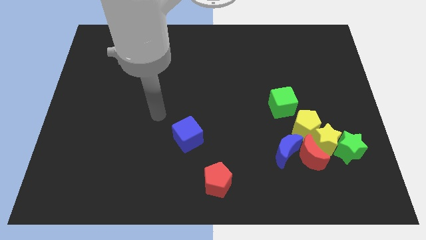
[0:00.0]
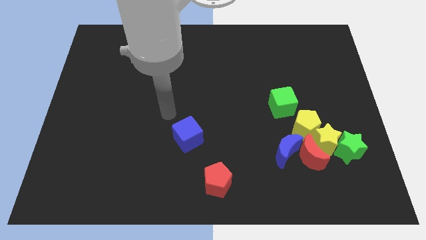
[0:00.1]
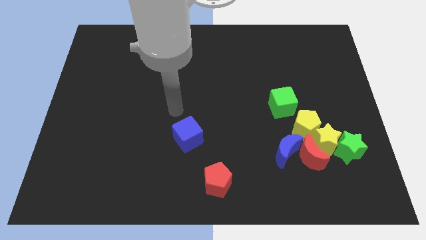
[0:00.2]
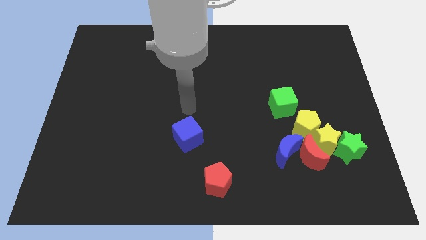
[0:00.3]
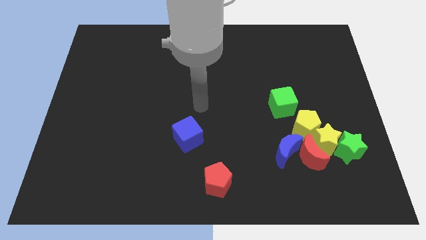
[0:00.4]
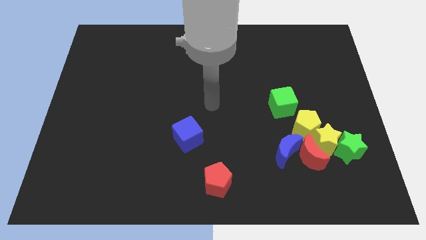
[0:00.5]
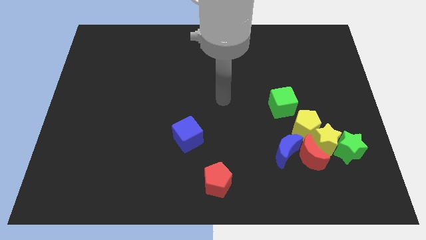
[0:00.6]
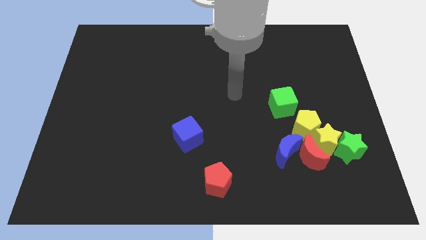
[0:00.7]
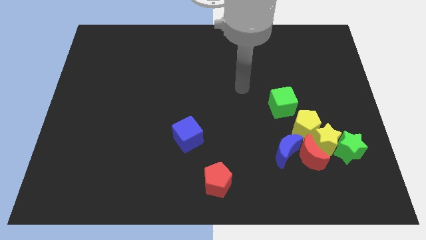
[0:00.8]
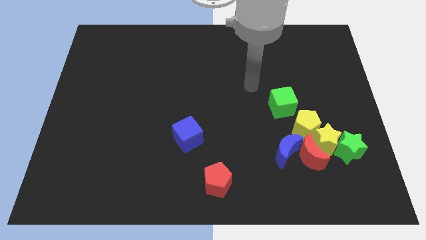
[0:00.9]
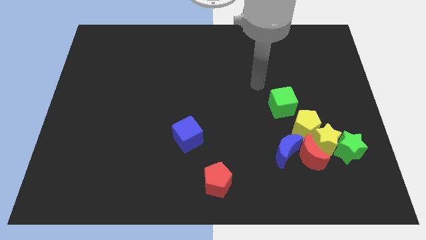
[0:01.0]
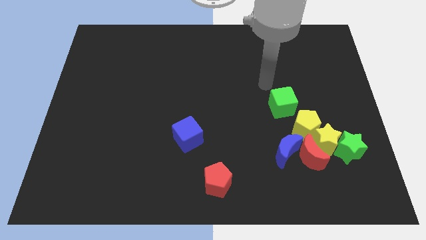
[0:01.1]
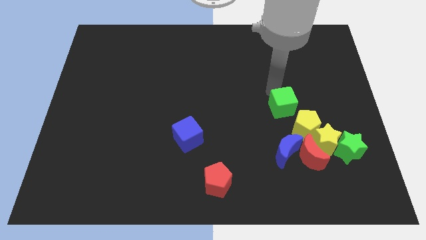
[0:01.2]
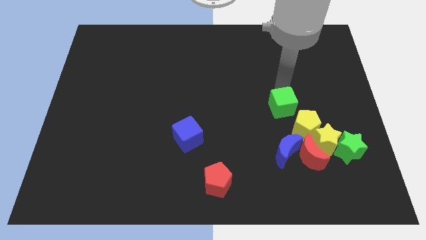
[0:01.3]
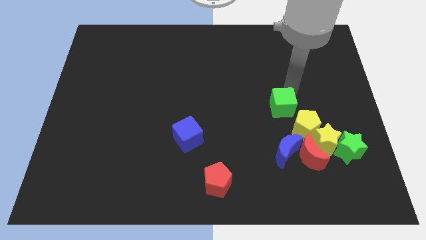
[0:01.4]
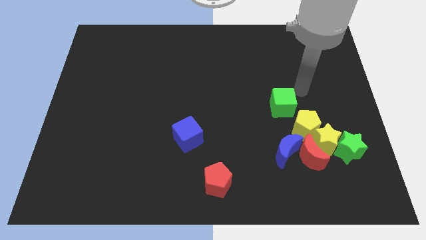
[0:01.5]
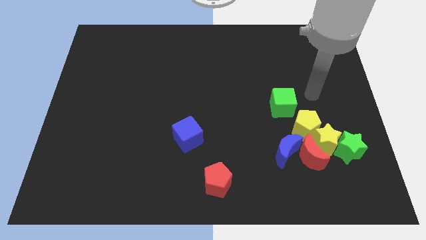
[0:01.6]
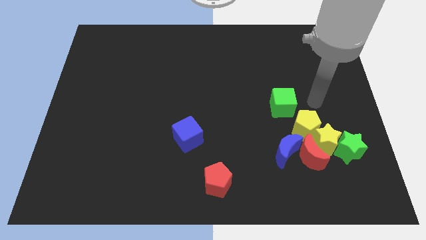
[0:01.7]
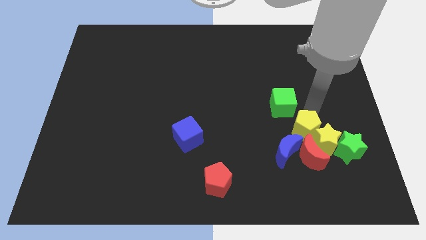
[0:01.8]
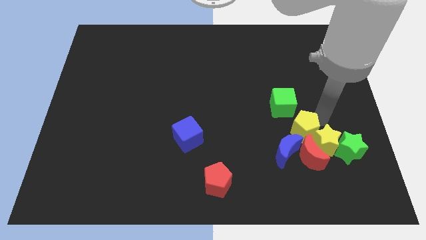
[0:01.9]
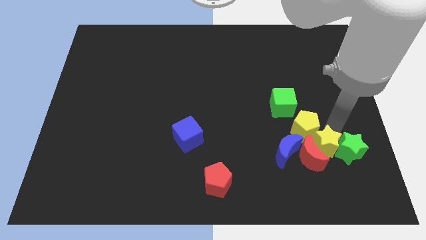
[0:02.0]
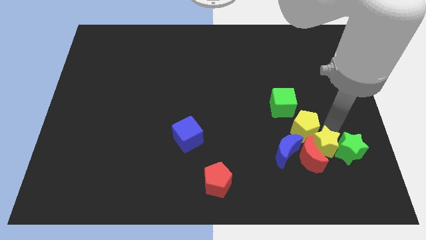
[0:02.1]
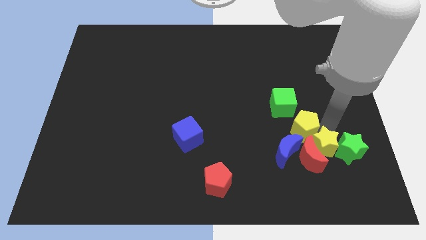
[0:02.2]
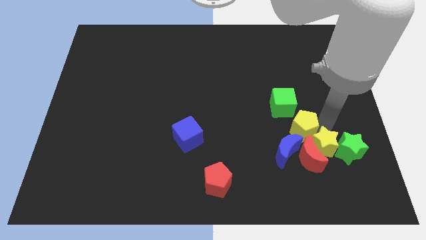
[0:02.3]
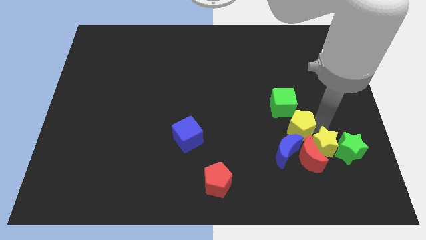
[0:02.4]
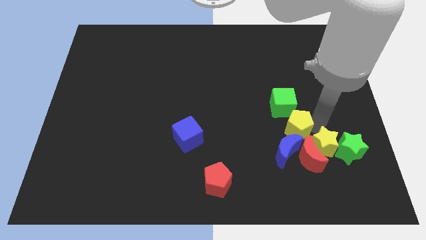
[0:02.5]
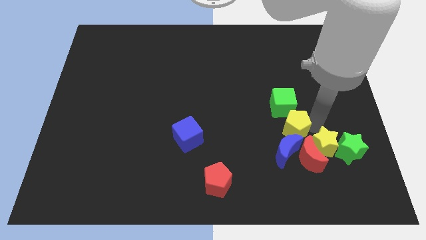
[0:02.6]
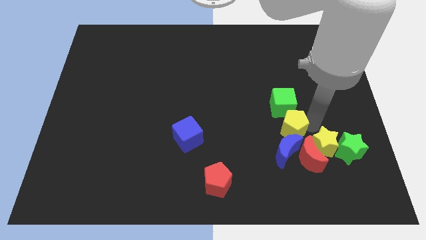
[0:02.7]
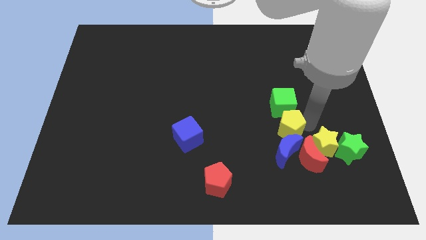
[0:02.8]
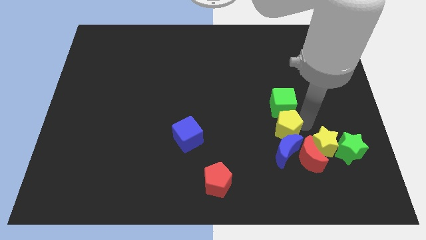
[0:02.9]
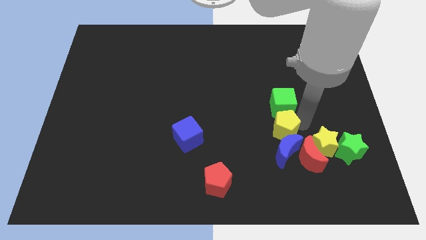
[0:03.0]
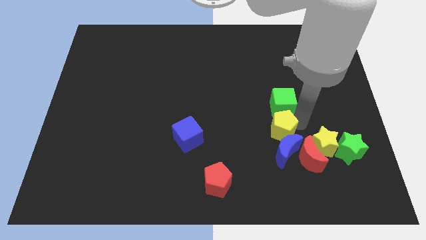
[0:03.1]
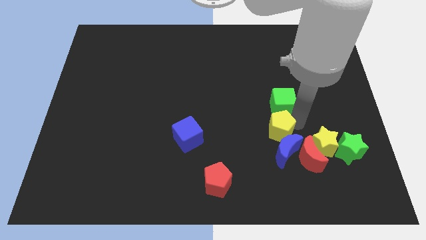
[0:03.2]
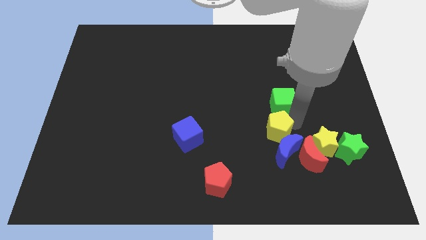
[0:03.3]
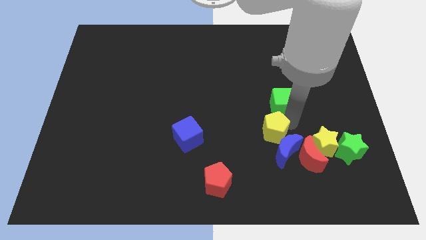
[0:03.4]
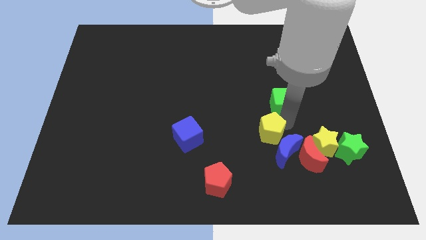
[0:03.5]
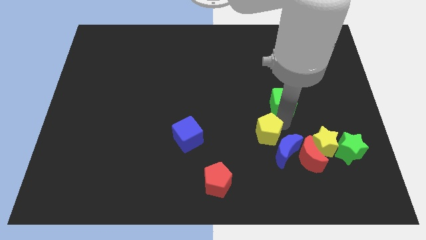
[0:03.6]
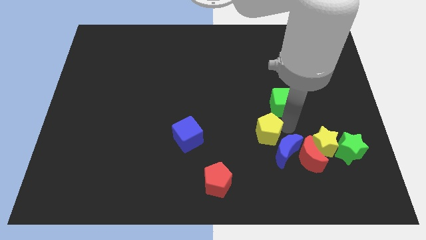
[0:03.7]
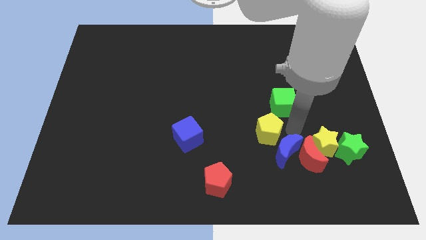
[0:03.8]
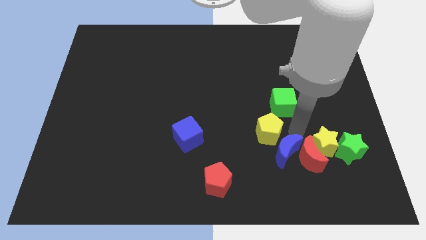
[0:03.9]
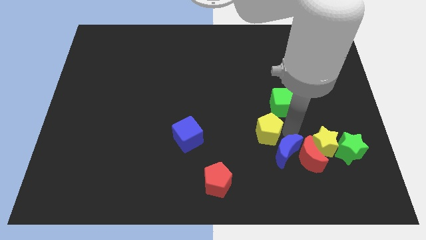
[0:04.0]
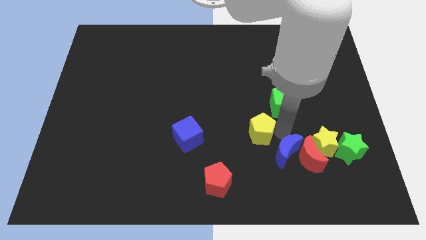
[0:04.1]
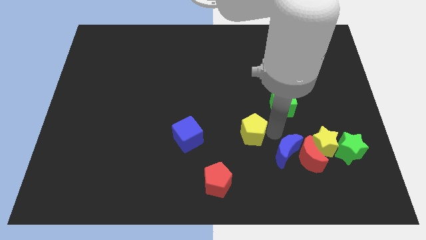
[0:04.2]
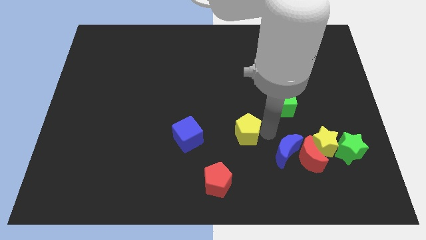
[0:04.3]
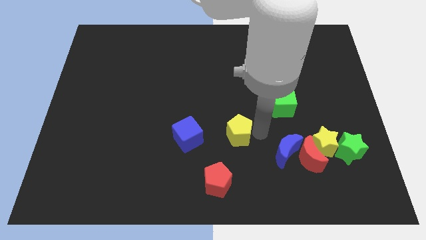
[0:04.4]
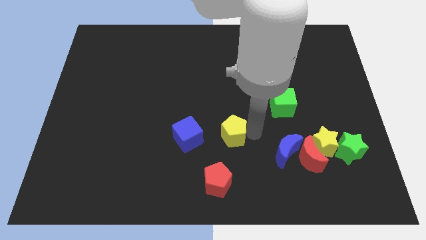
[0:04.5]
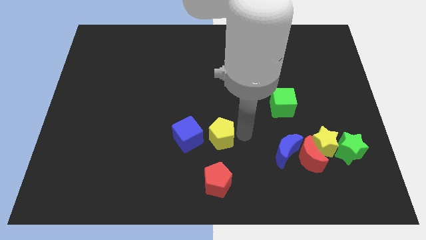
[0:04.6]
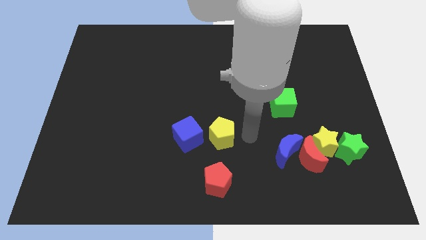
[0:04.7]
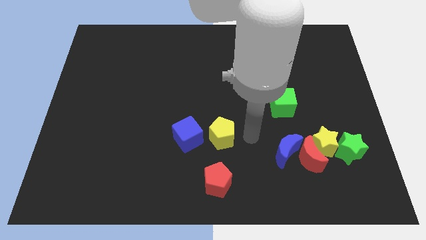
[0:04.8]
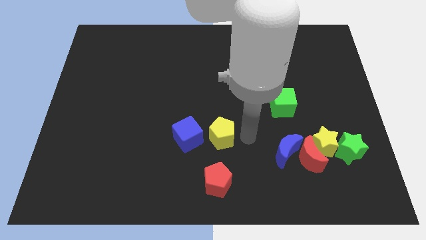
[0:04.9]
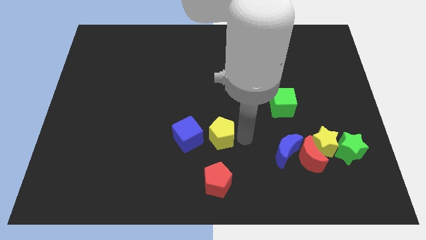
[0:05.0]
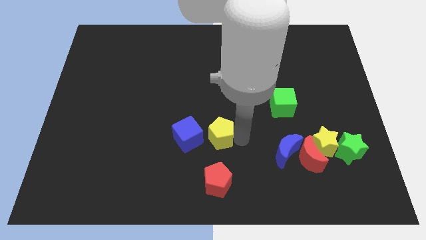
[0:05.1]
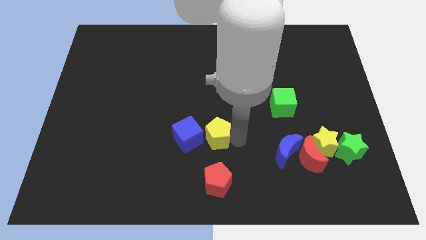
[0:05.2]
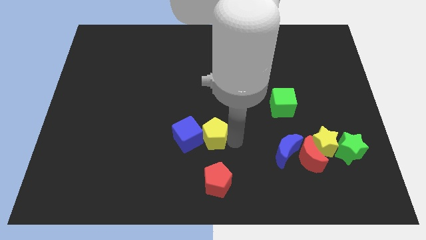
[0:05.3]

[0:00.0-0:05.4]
slide the yellow pentagon towards the blue cube

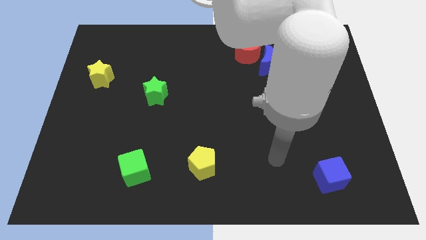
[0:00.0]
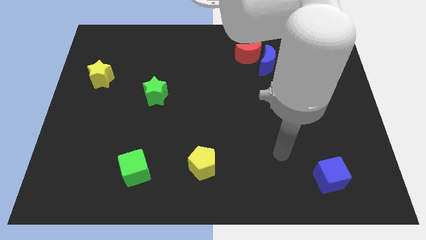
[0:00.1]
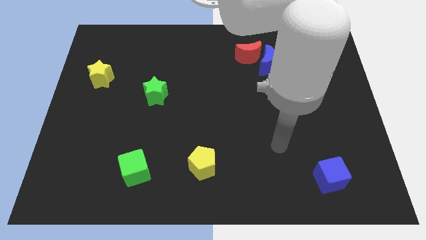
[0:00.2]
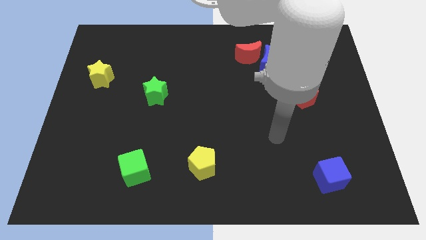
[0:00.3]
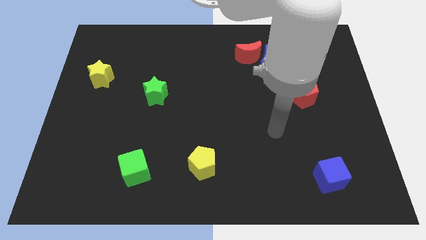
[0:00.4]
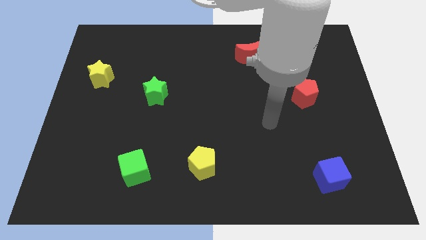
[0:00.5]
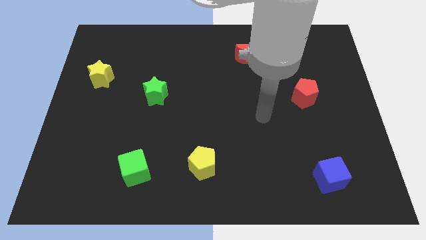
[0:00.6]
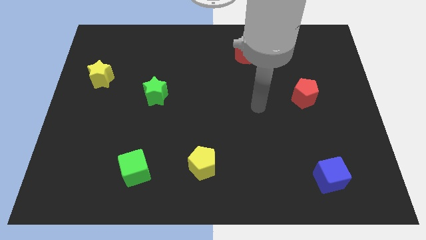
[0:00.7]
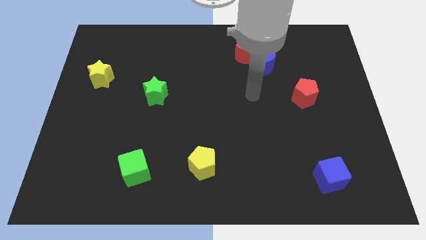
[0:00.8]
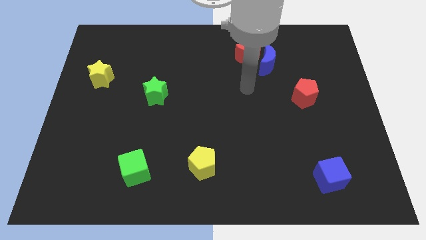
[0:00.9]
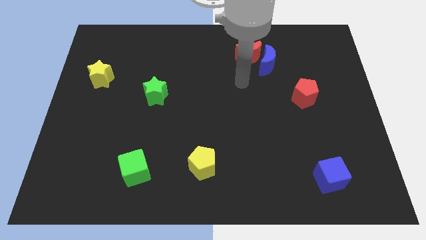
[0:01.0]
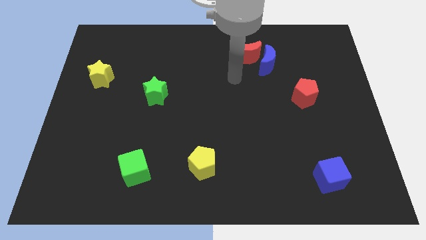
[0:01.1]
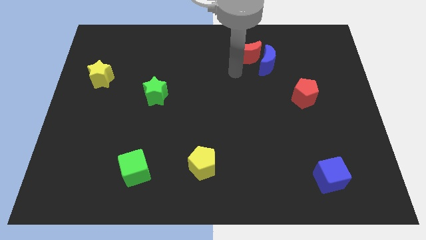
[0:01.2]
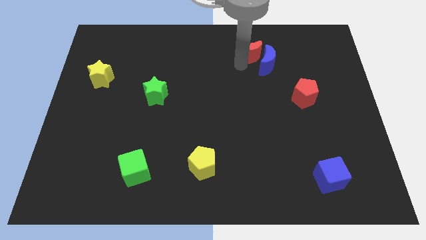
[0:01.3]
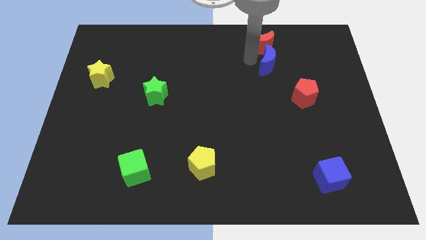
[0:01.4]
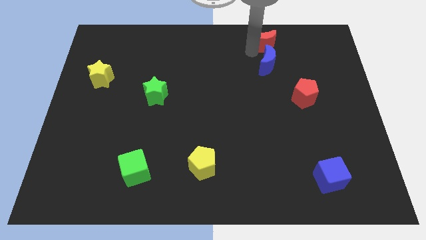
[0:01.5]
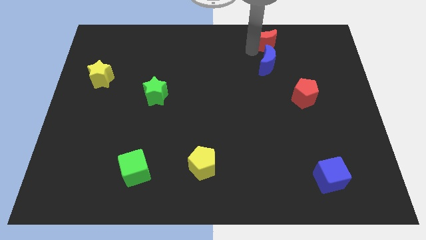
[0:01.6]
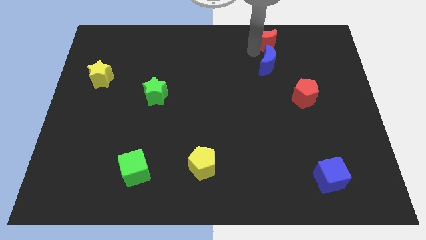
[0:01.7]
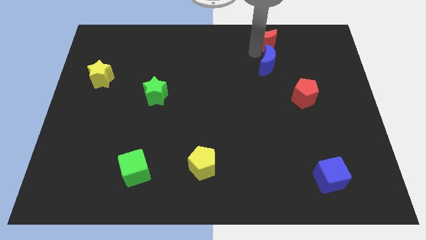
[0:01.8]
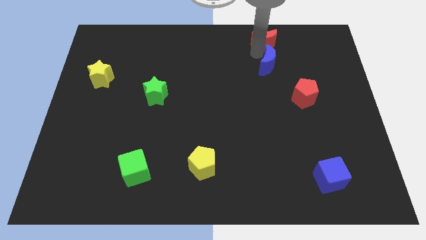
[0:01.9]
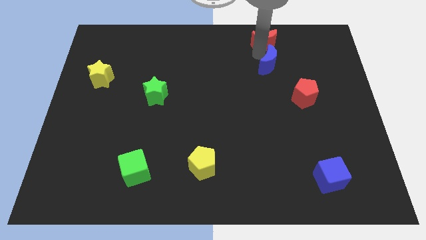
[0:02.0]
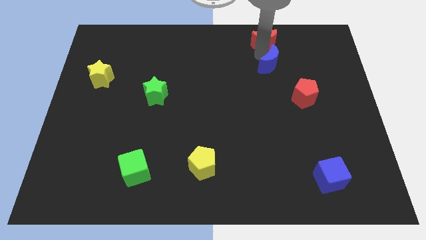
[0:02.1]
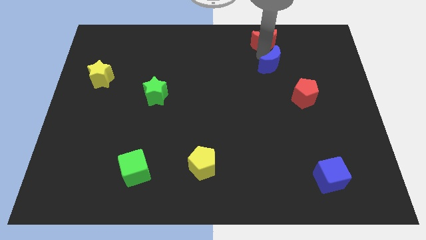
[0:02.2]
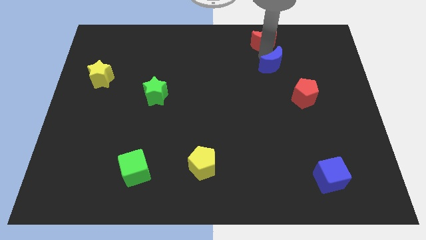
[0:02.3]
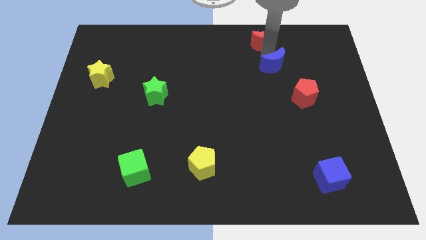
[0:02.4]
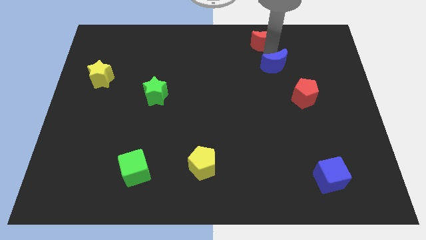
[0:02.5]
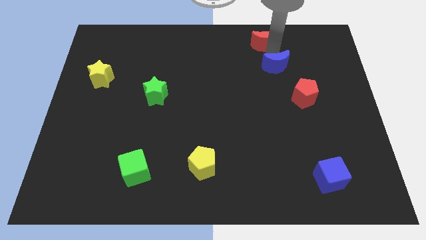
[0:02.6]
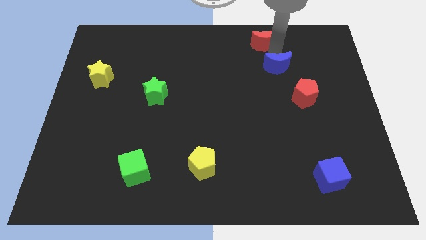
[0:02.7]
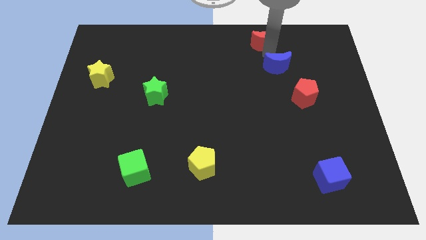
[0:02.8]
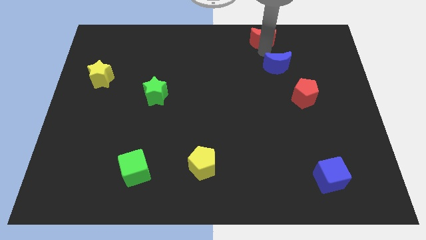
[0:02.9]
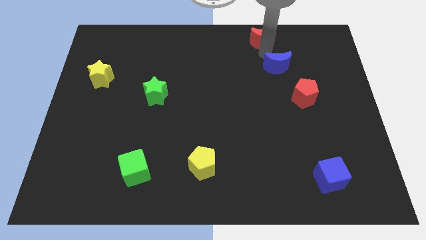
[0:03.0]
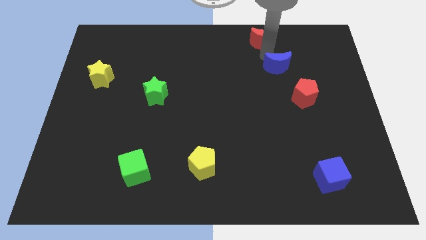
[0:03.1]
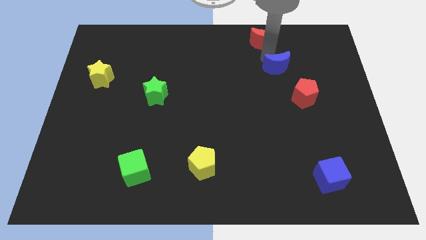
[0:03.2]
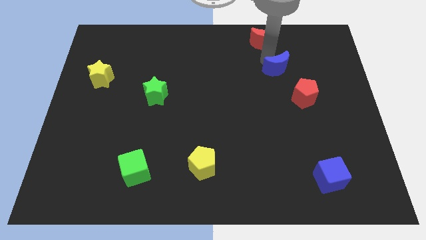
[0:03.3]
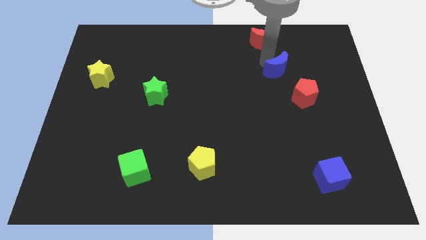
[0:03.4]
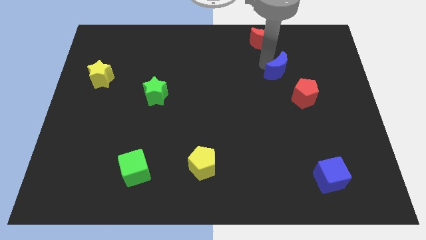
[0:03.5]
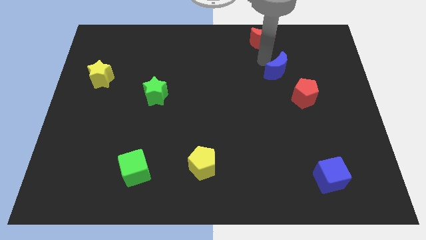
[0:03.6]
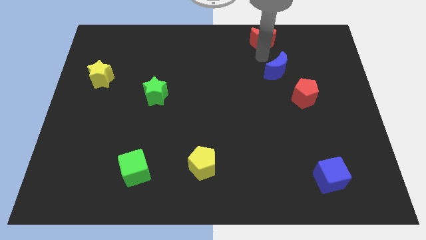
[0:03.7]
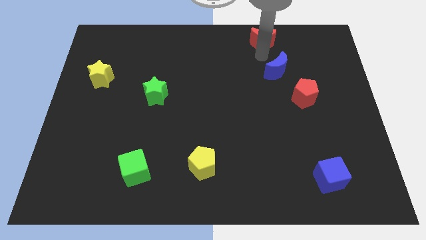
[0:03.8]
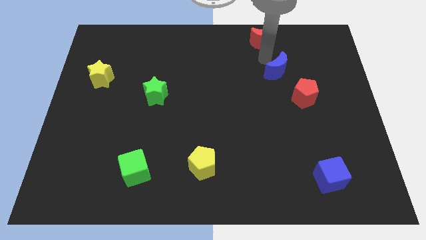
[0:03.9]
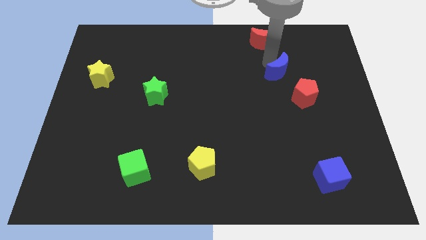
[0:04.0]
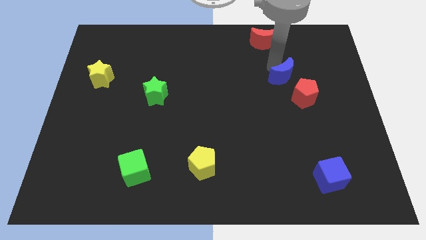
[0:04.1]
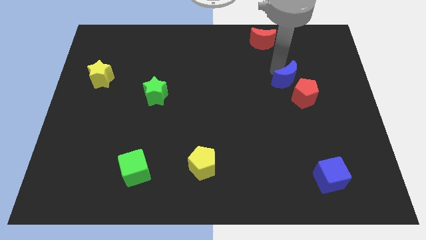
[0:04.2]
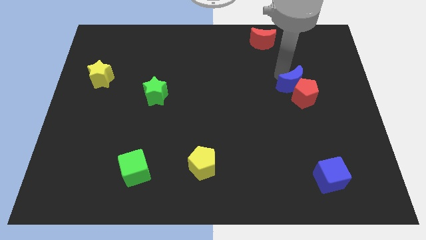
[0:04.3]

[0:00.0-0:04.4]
push the blue moon towards the red pentagon
